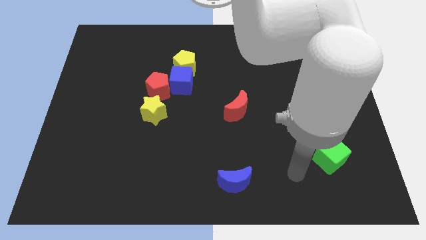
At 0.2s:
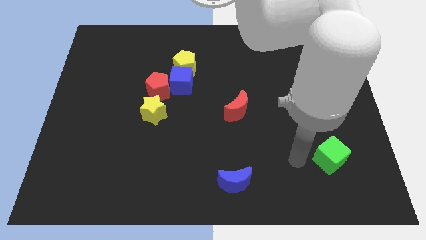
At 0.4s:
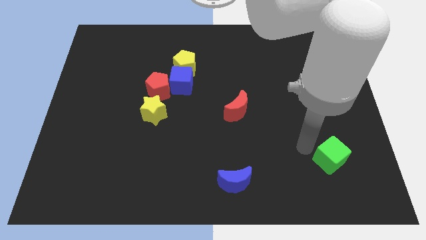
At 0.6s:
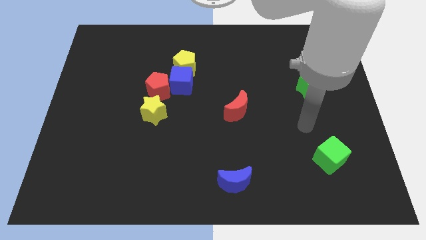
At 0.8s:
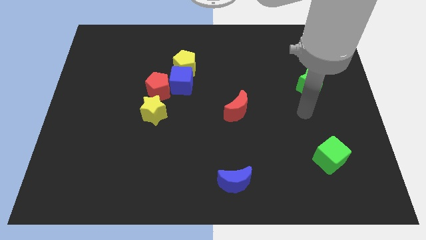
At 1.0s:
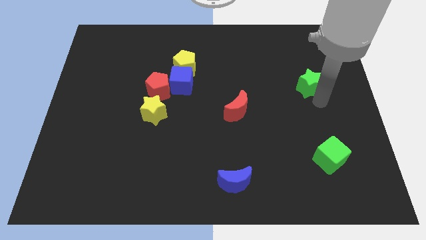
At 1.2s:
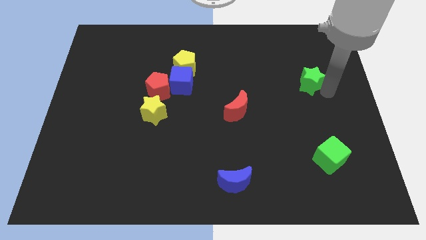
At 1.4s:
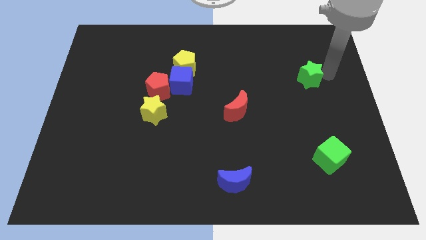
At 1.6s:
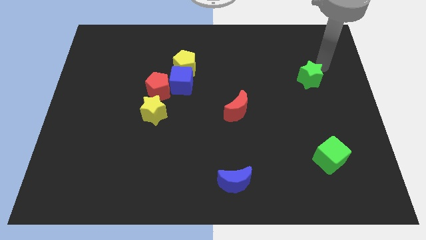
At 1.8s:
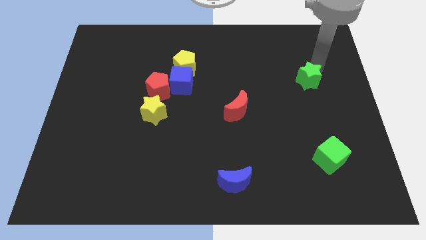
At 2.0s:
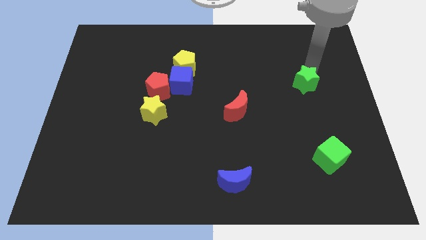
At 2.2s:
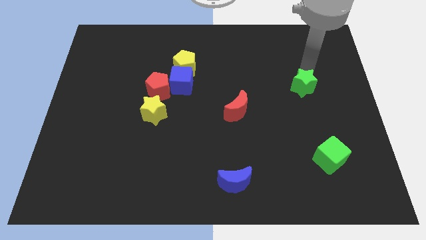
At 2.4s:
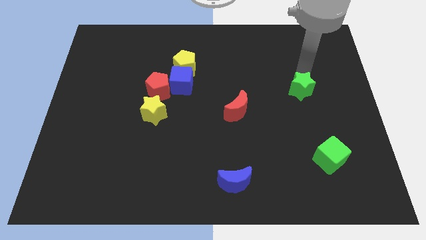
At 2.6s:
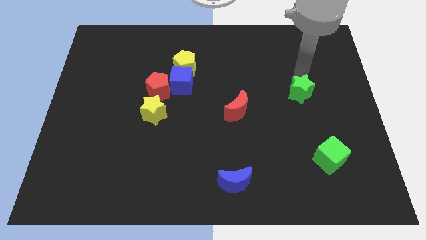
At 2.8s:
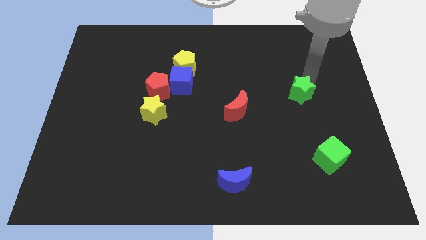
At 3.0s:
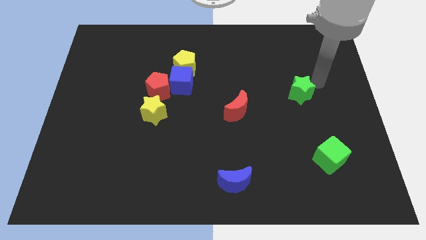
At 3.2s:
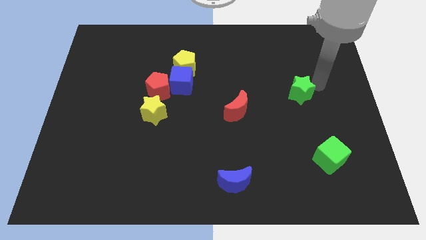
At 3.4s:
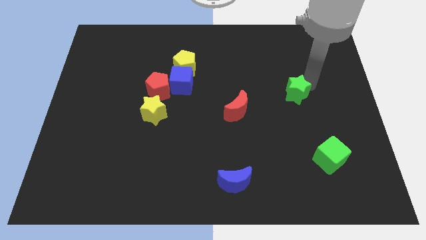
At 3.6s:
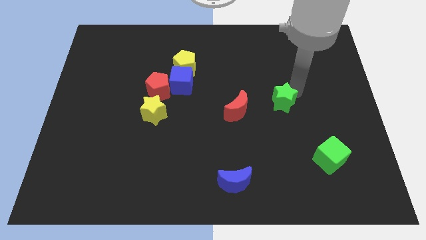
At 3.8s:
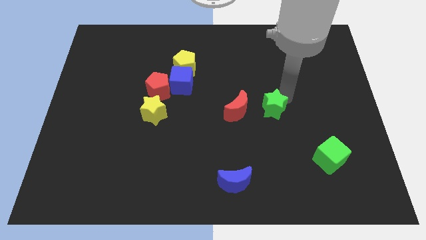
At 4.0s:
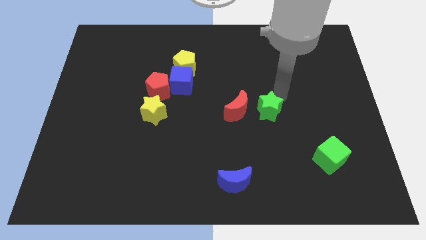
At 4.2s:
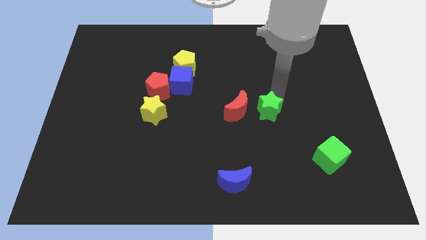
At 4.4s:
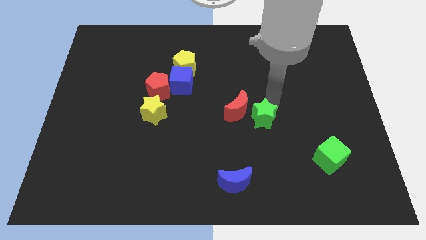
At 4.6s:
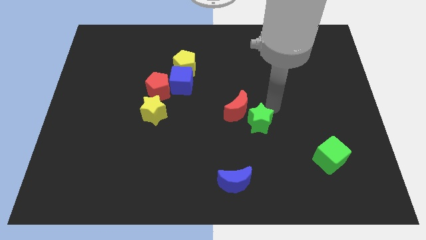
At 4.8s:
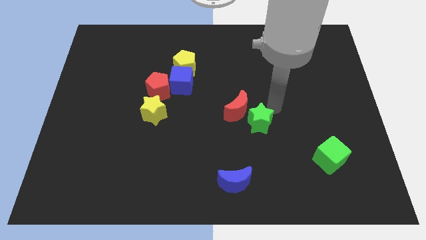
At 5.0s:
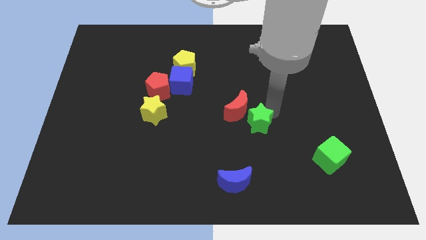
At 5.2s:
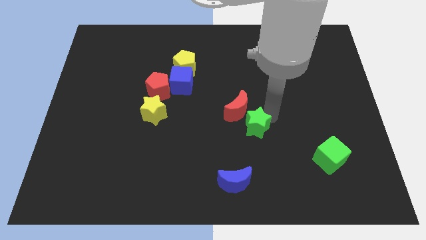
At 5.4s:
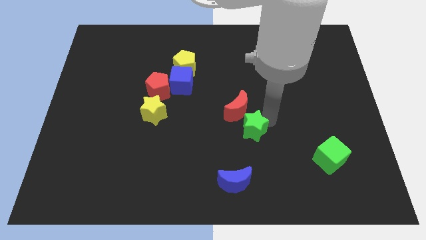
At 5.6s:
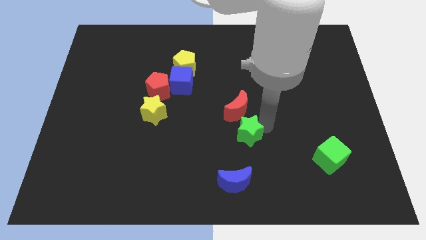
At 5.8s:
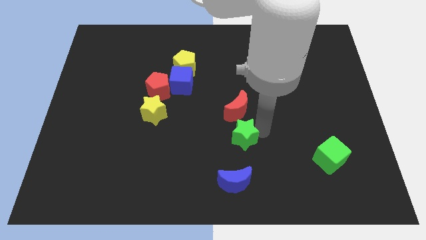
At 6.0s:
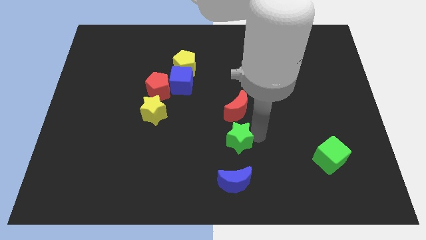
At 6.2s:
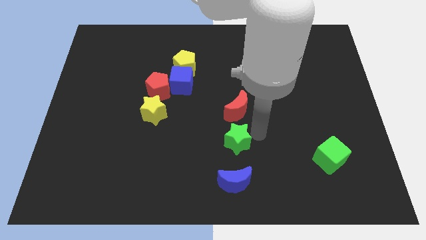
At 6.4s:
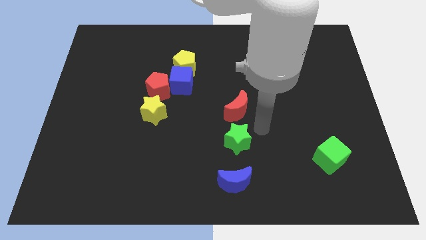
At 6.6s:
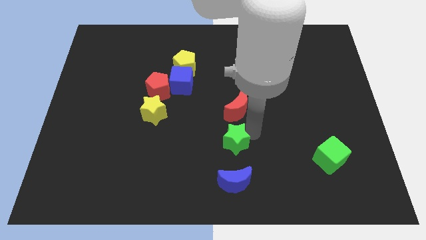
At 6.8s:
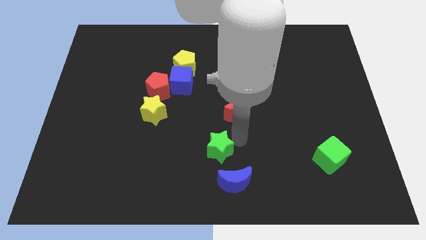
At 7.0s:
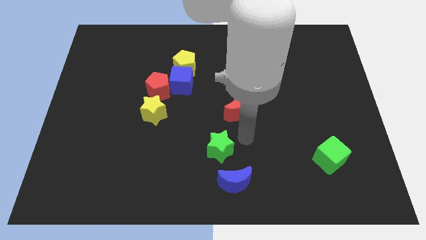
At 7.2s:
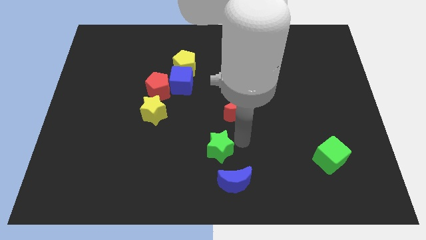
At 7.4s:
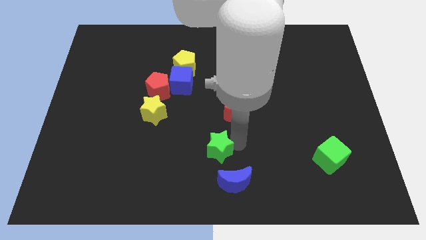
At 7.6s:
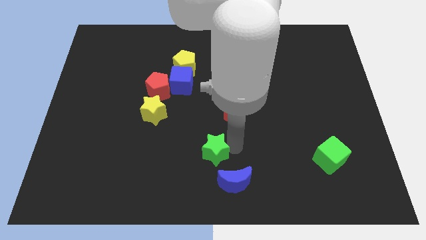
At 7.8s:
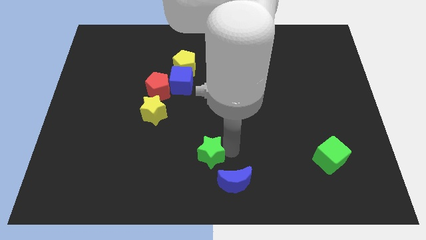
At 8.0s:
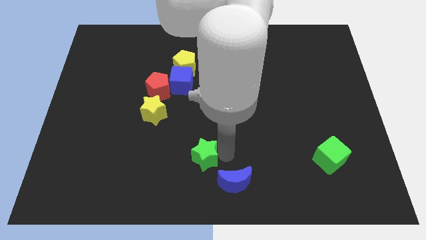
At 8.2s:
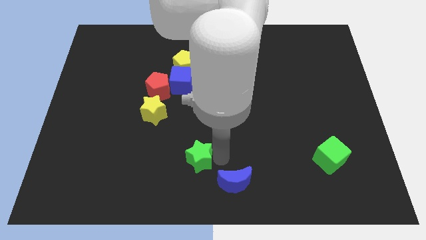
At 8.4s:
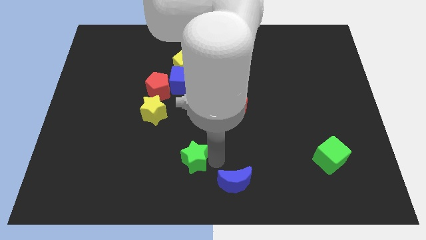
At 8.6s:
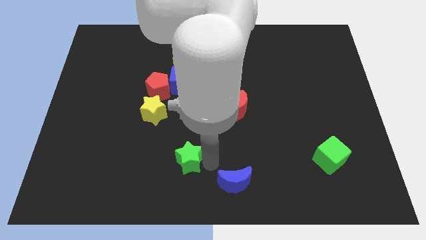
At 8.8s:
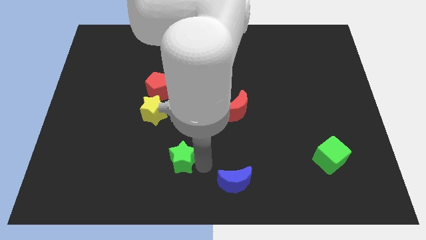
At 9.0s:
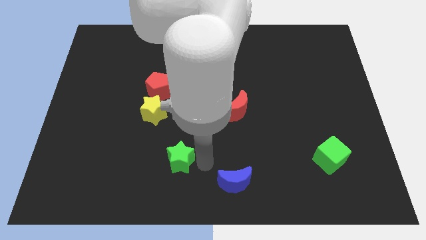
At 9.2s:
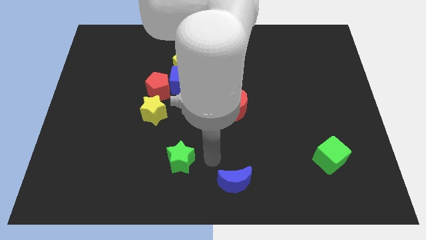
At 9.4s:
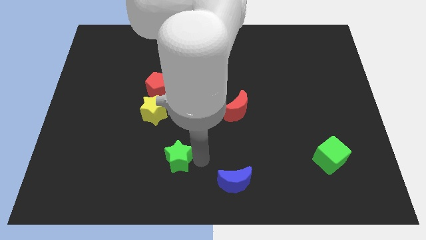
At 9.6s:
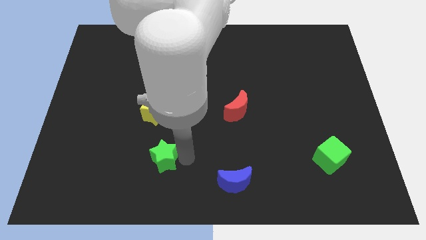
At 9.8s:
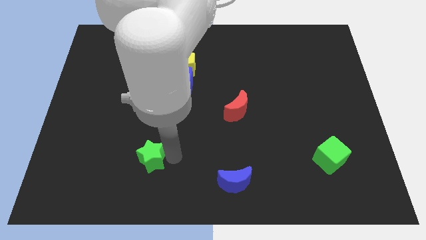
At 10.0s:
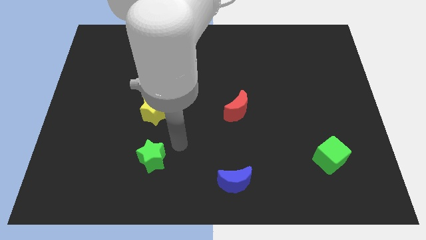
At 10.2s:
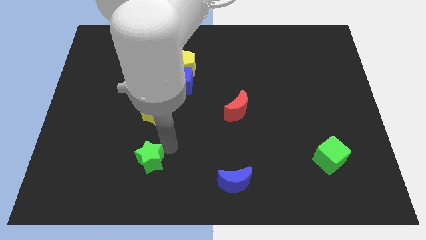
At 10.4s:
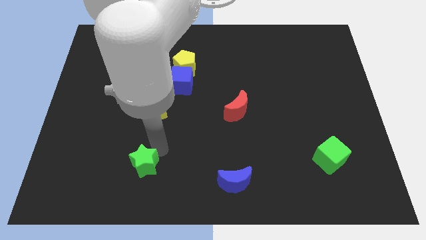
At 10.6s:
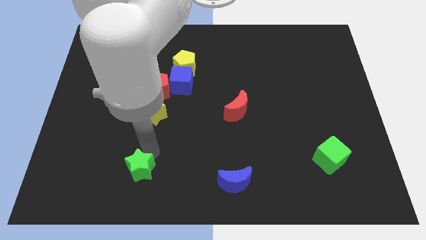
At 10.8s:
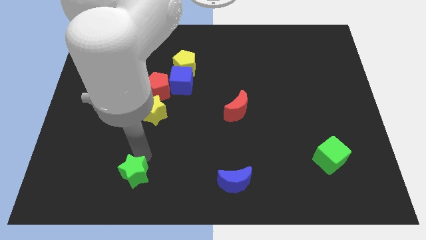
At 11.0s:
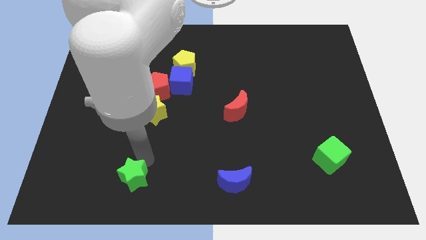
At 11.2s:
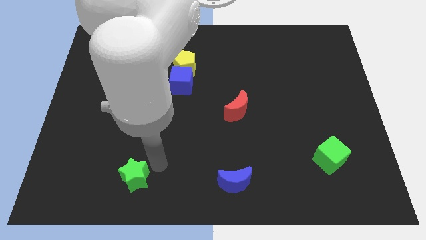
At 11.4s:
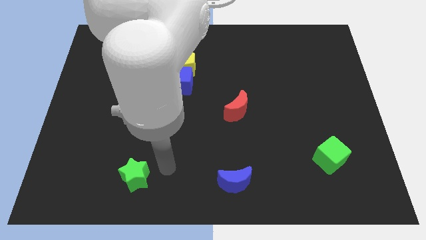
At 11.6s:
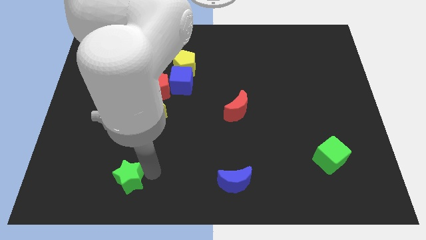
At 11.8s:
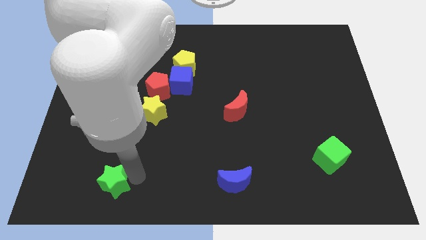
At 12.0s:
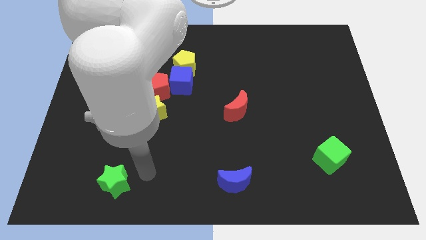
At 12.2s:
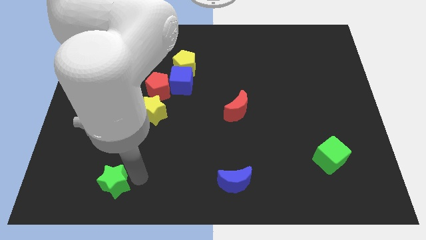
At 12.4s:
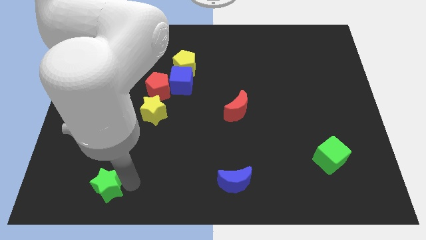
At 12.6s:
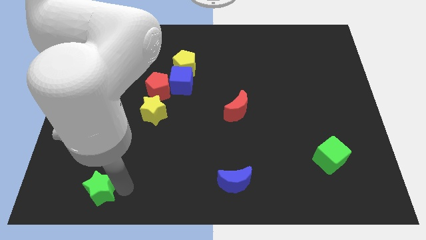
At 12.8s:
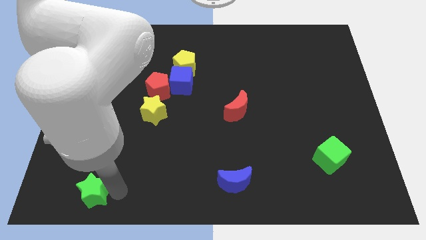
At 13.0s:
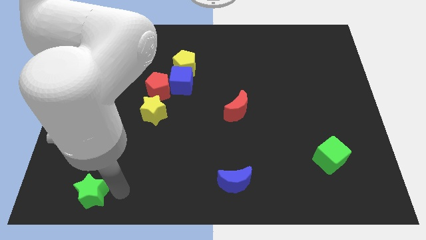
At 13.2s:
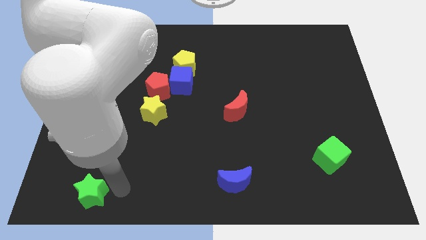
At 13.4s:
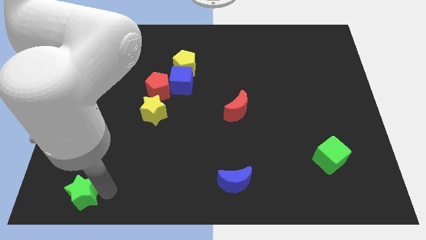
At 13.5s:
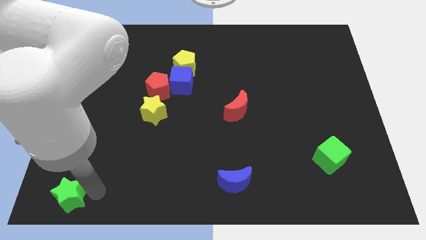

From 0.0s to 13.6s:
put the green star to the lower left corner
